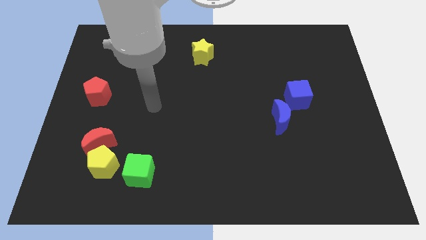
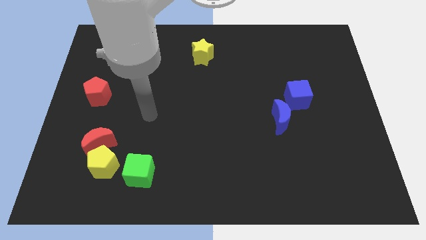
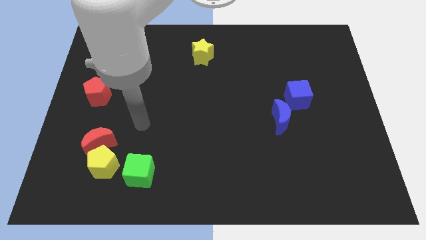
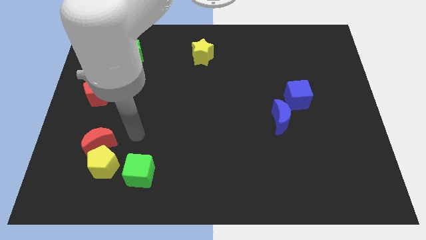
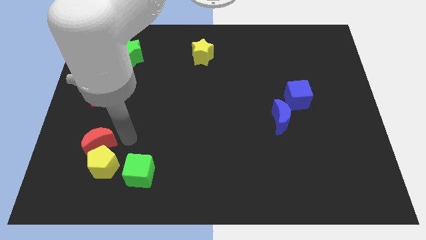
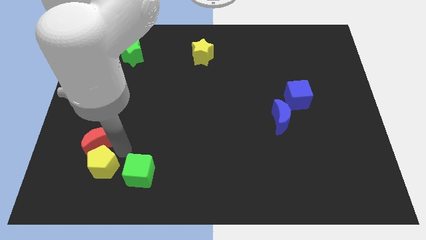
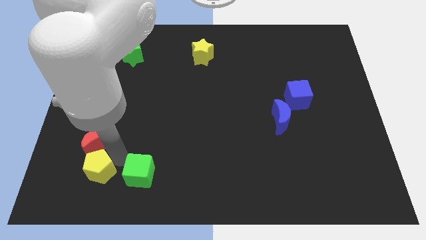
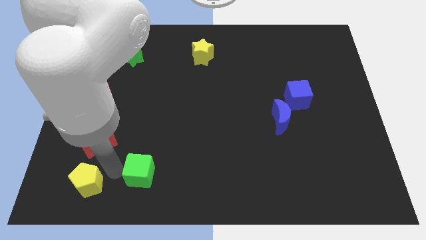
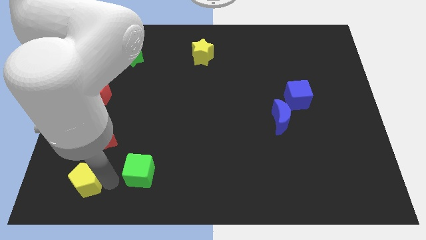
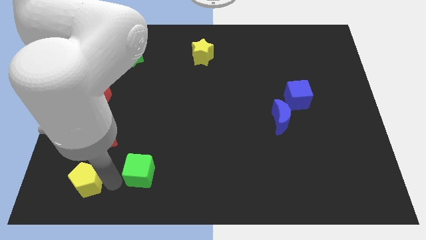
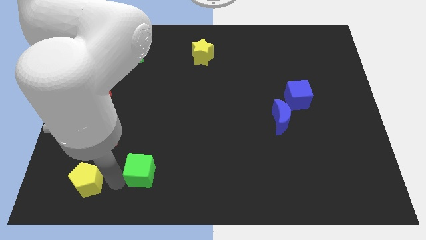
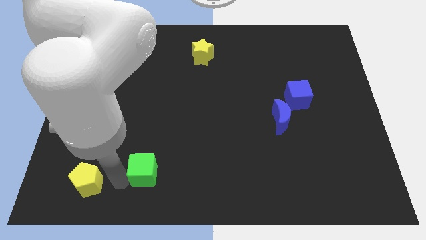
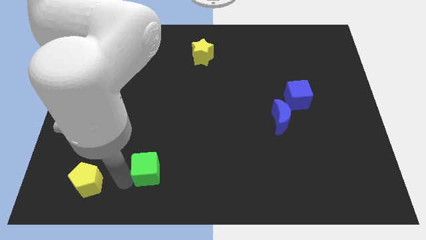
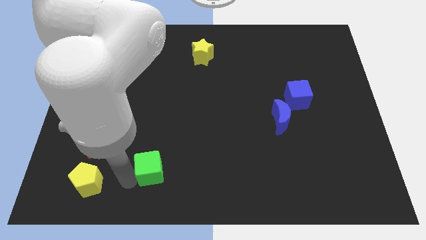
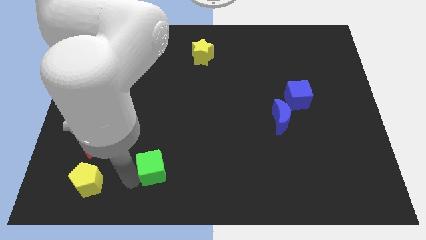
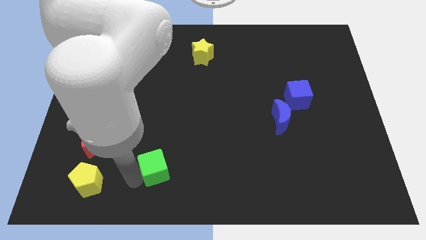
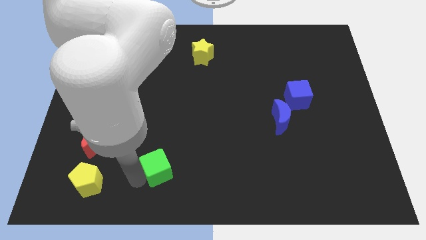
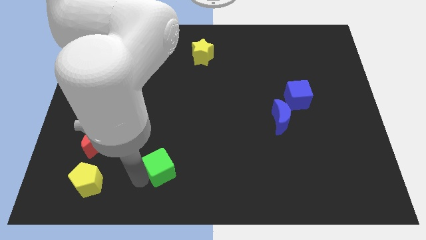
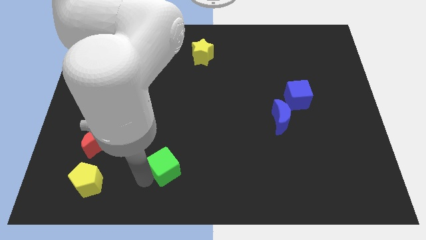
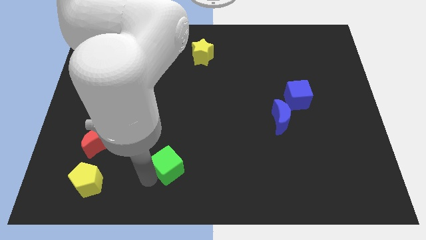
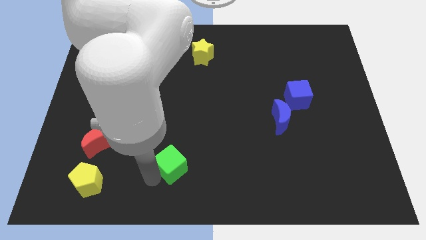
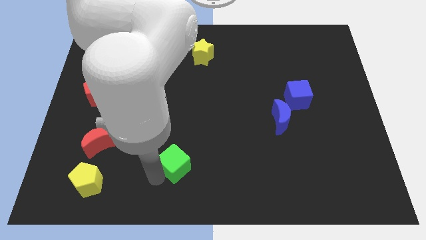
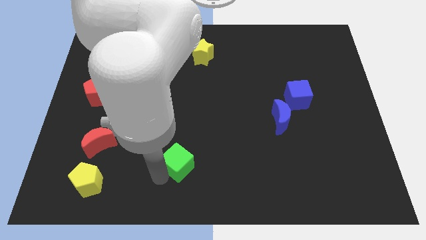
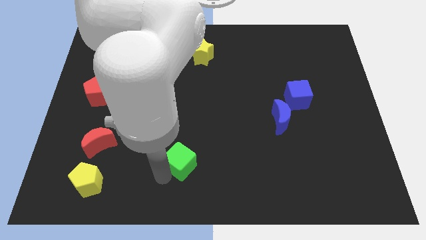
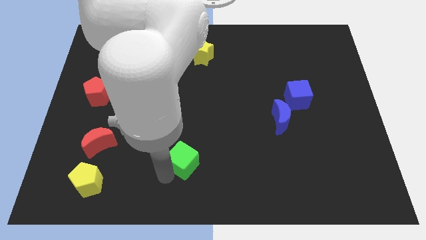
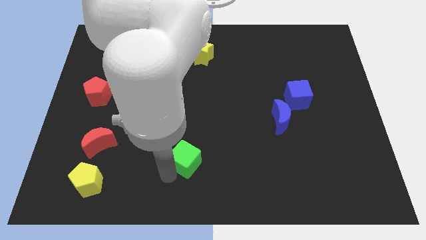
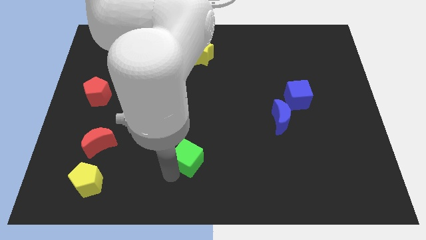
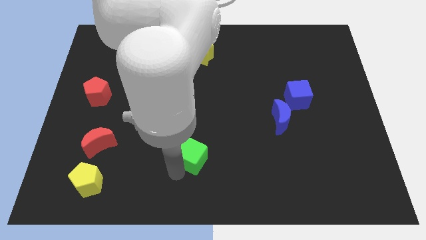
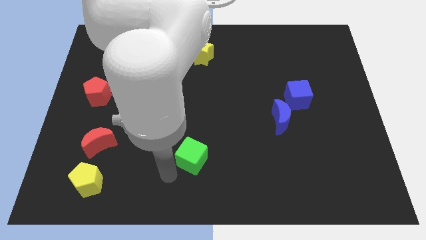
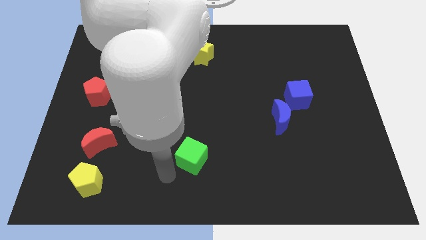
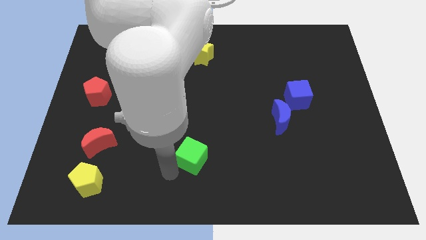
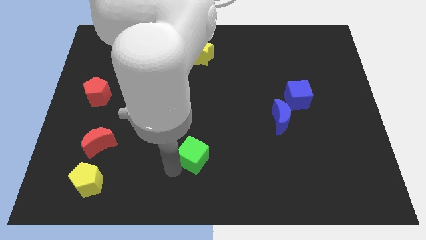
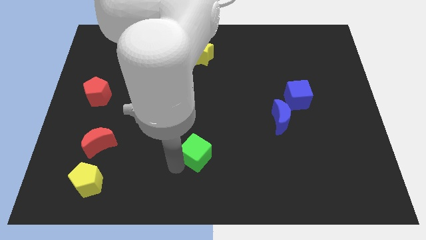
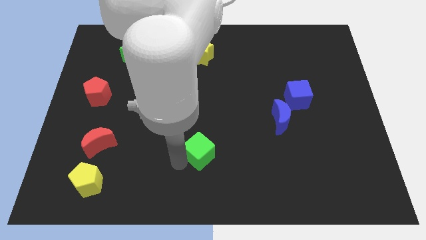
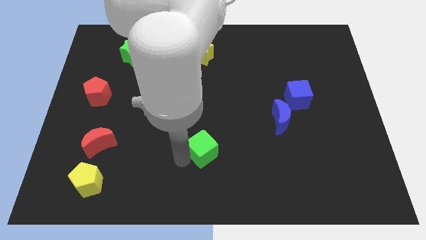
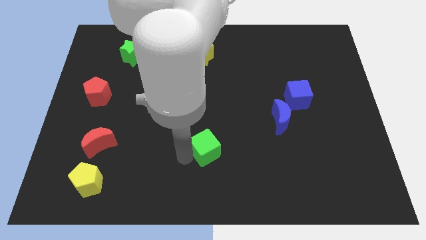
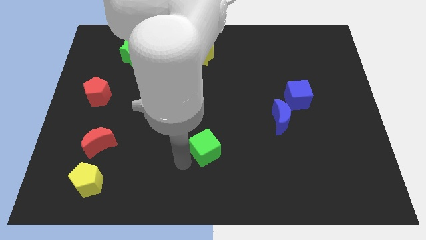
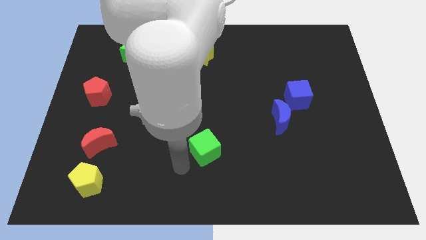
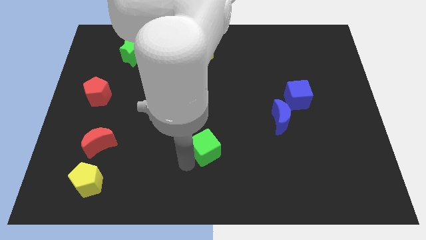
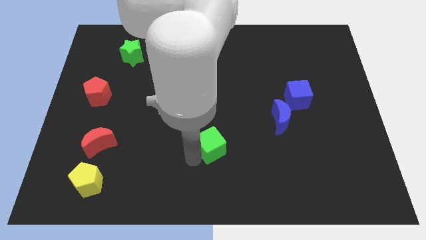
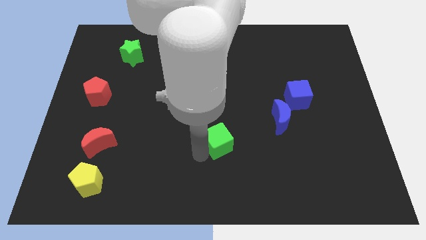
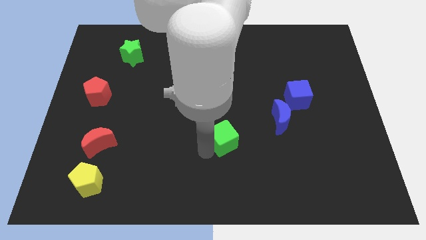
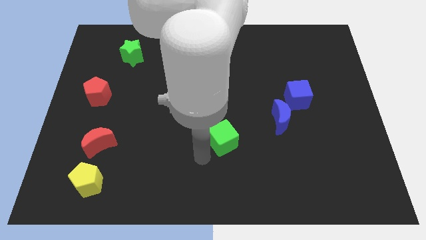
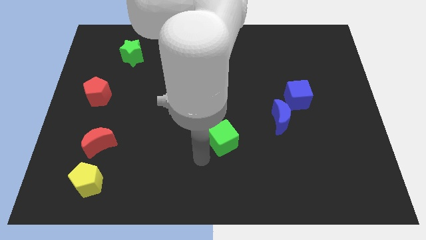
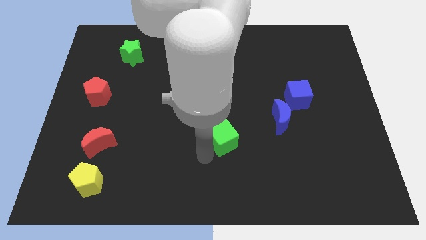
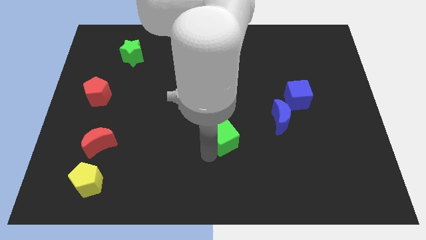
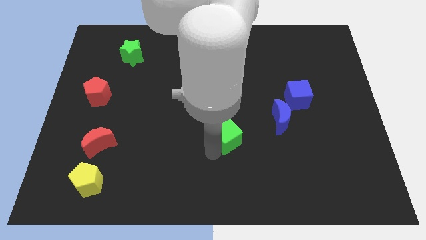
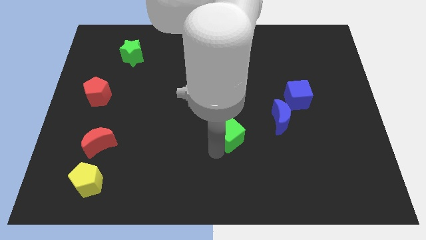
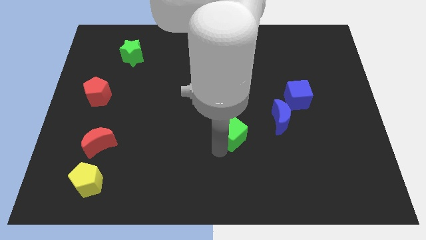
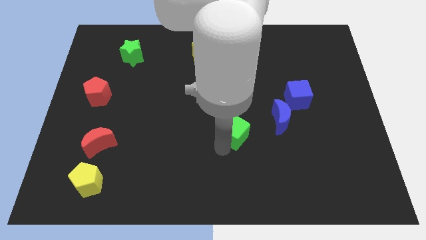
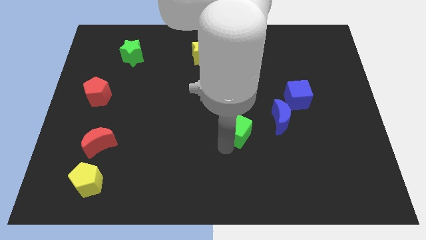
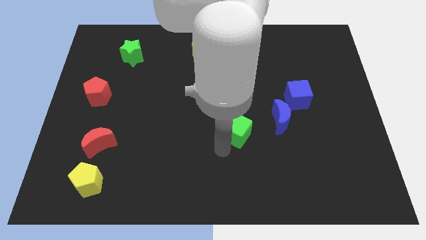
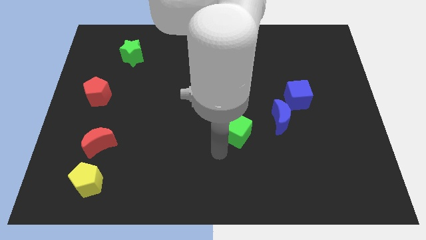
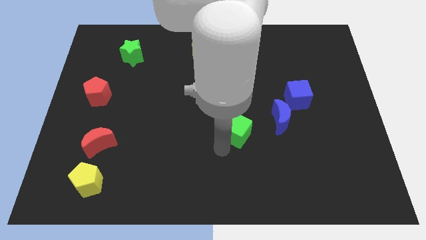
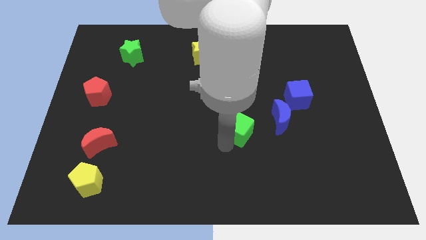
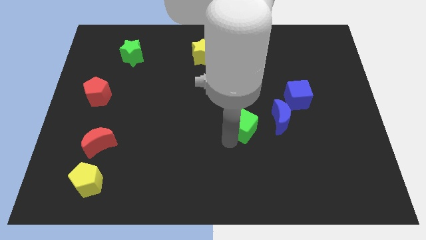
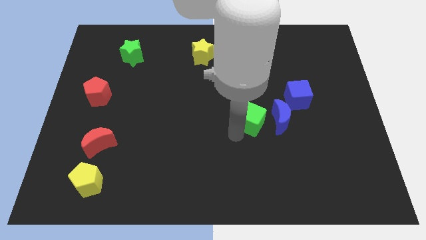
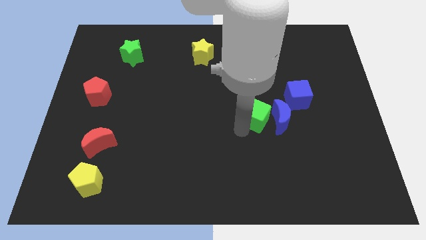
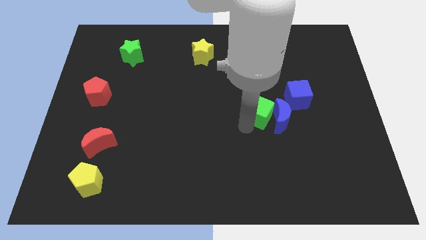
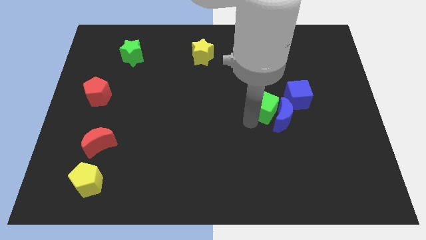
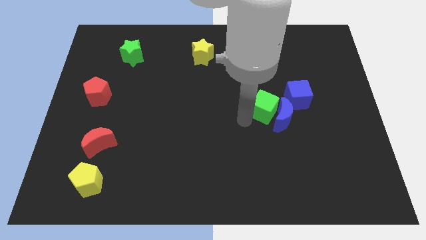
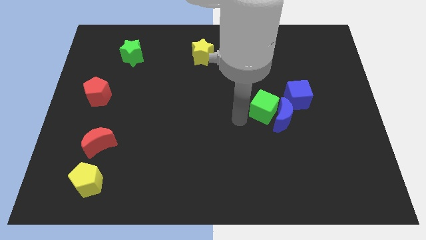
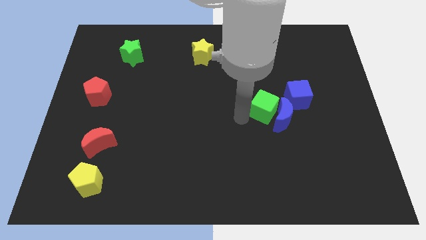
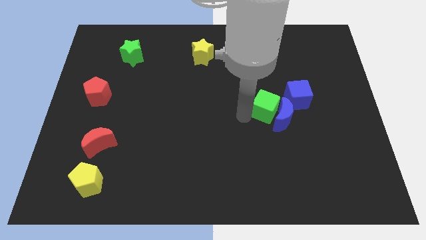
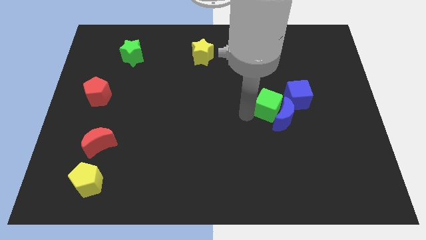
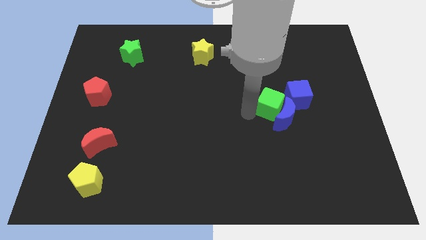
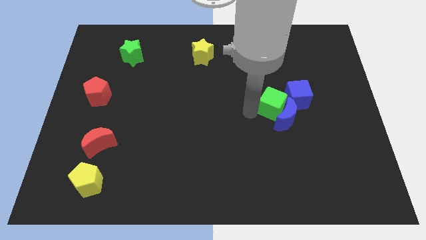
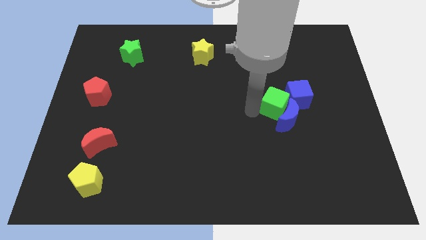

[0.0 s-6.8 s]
move the green cube close to the blue cube
